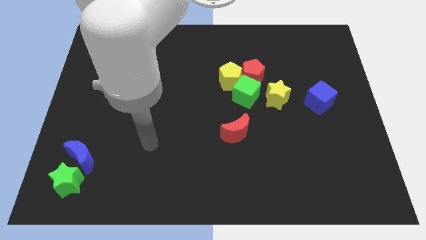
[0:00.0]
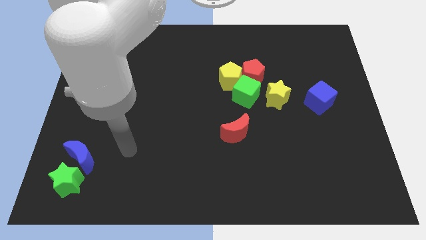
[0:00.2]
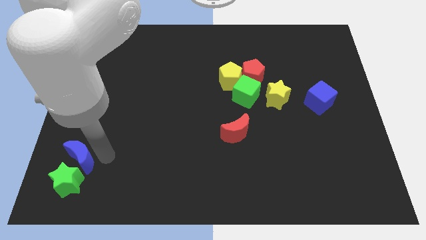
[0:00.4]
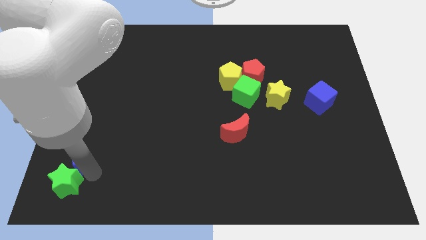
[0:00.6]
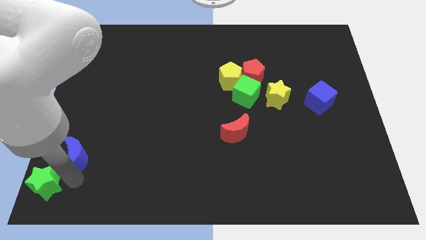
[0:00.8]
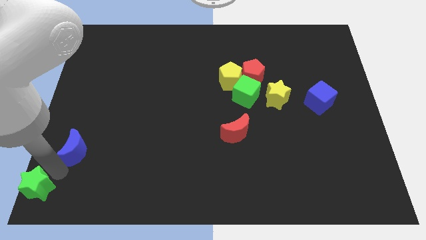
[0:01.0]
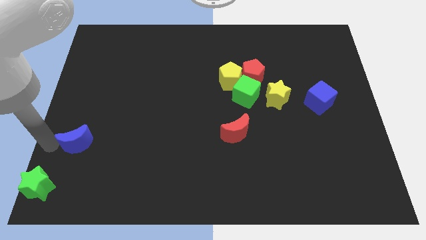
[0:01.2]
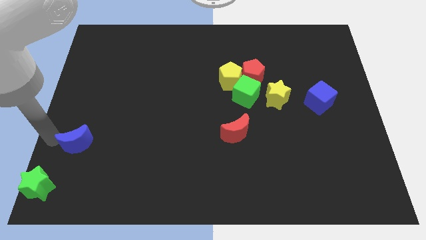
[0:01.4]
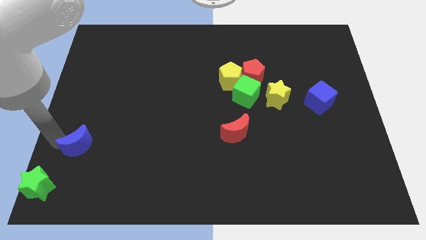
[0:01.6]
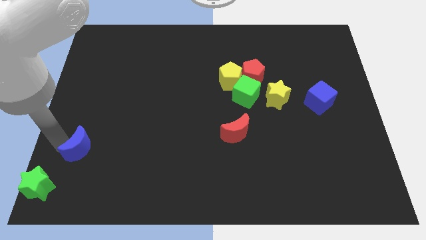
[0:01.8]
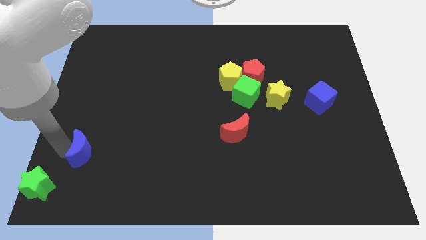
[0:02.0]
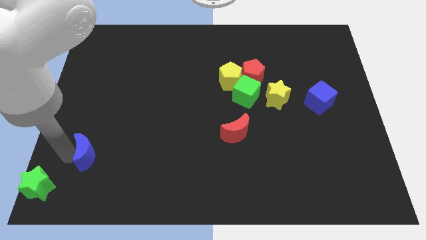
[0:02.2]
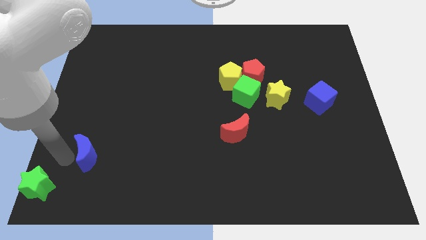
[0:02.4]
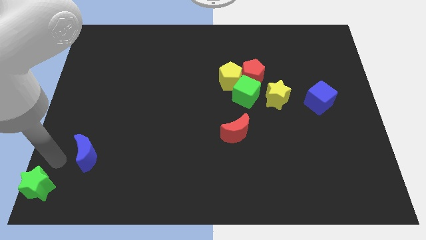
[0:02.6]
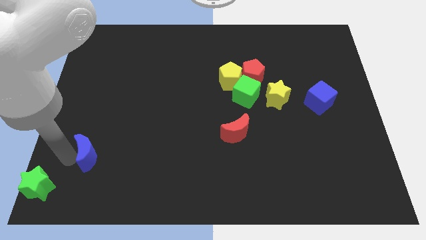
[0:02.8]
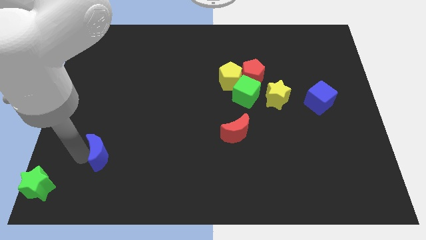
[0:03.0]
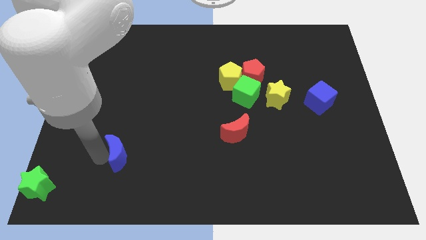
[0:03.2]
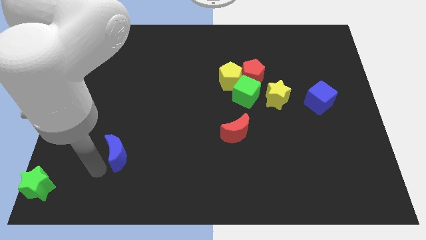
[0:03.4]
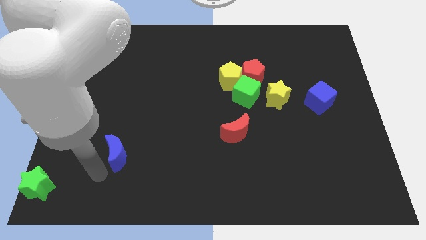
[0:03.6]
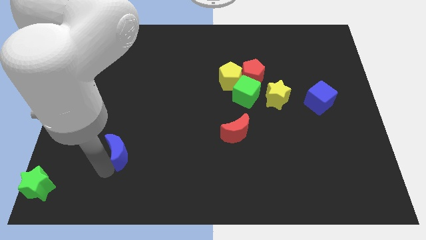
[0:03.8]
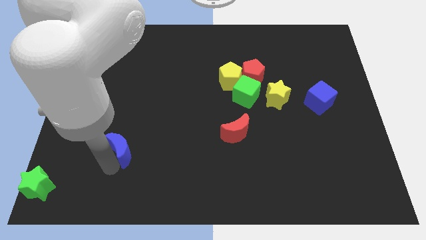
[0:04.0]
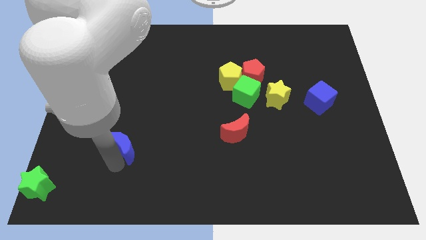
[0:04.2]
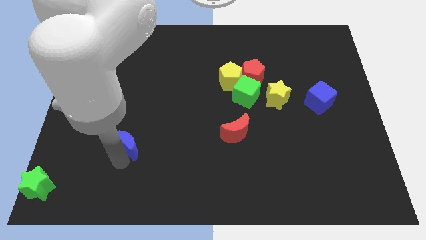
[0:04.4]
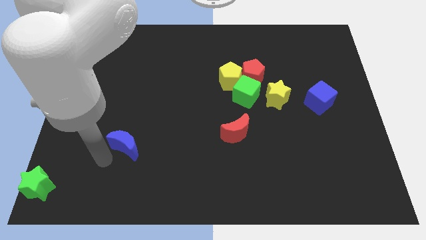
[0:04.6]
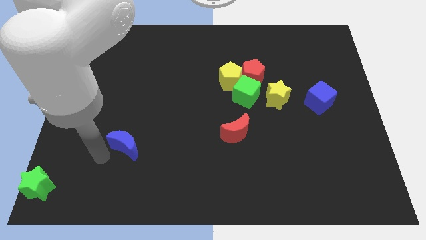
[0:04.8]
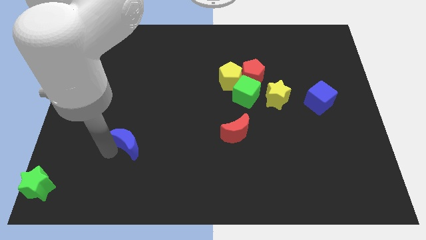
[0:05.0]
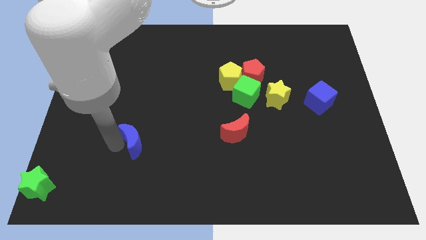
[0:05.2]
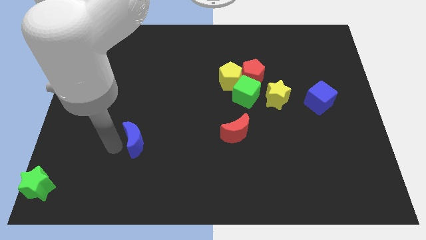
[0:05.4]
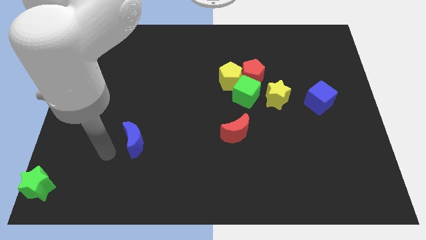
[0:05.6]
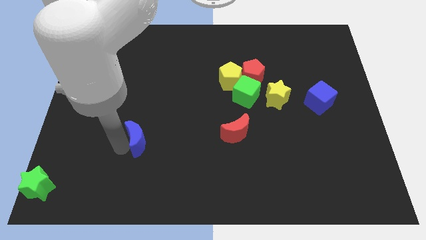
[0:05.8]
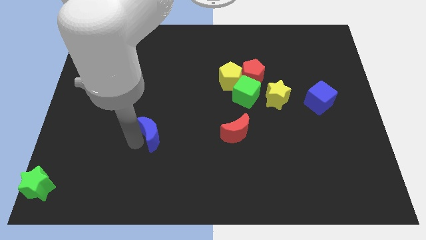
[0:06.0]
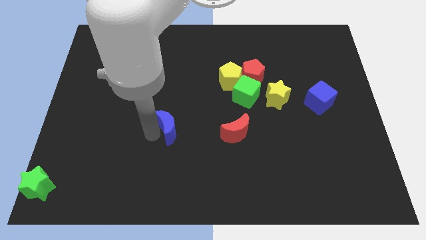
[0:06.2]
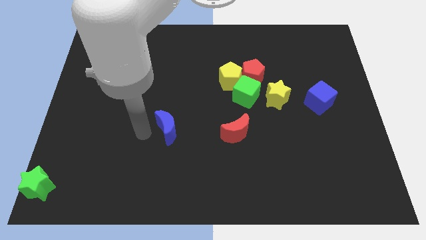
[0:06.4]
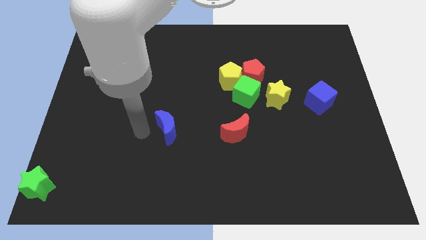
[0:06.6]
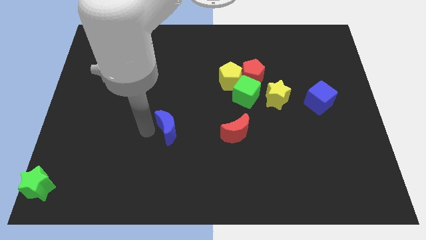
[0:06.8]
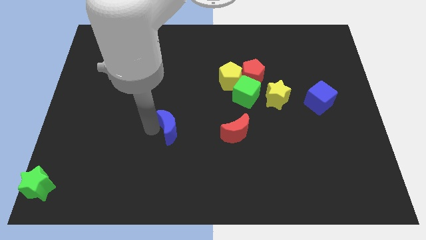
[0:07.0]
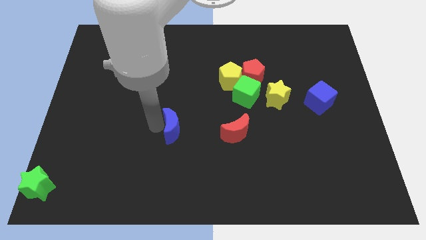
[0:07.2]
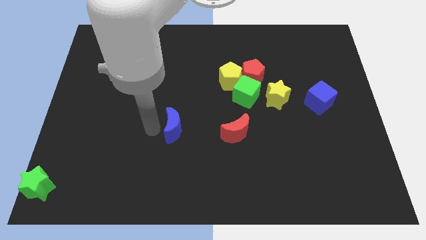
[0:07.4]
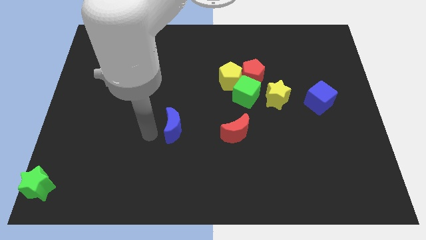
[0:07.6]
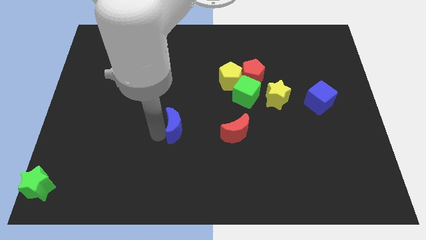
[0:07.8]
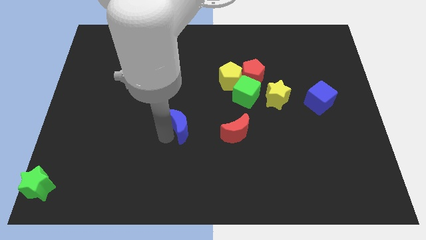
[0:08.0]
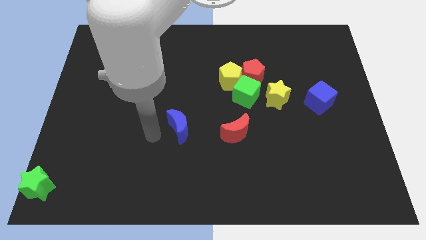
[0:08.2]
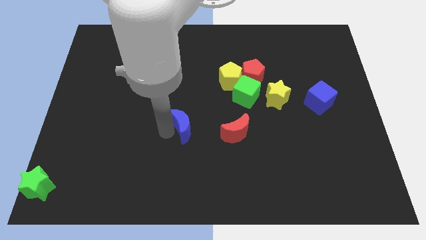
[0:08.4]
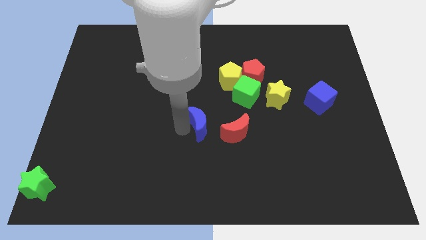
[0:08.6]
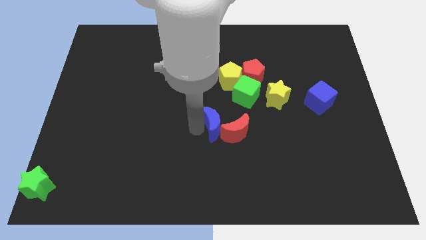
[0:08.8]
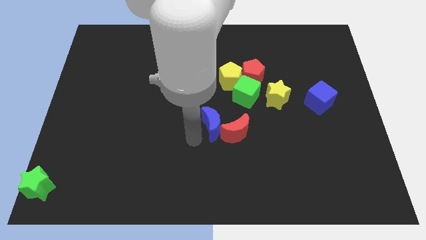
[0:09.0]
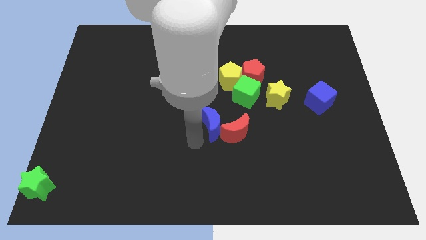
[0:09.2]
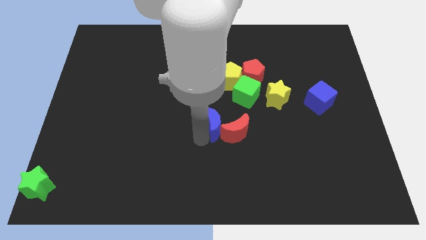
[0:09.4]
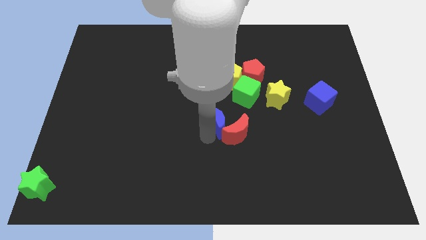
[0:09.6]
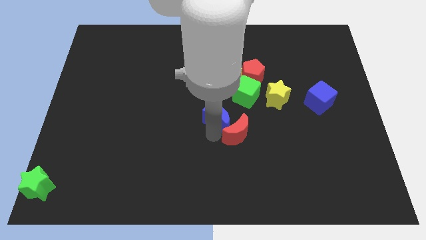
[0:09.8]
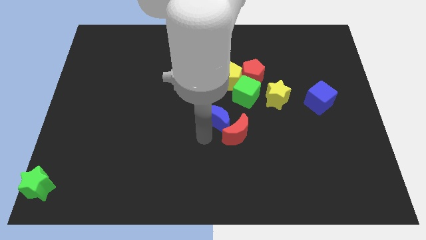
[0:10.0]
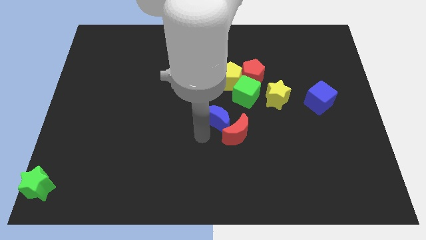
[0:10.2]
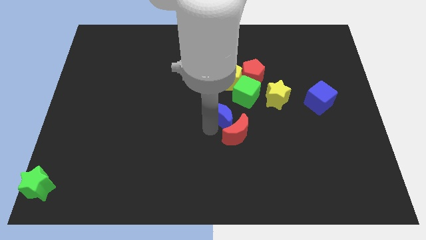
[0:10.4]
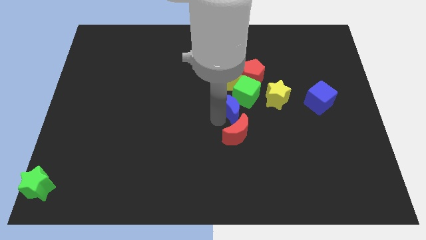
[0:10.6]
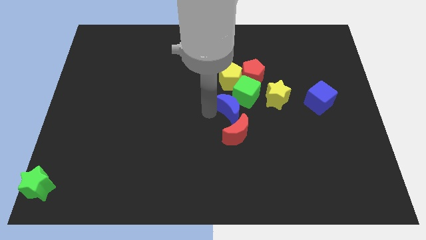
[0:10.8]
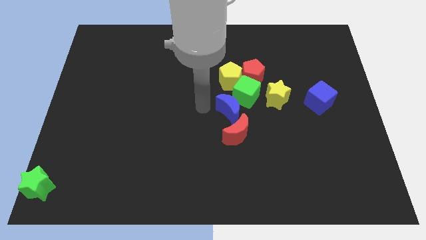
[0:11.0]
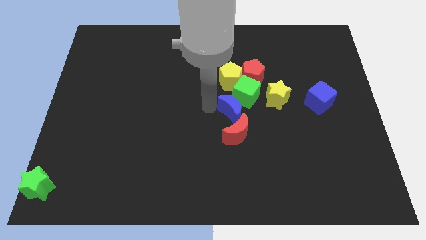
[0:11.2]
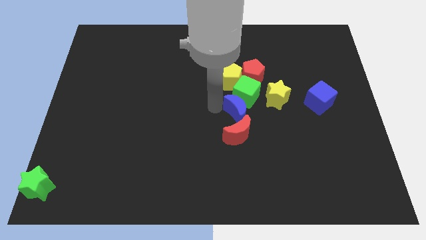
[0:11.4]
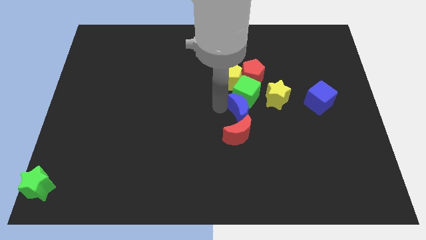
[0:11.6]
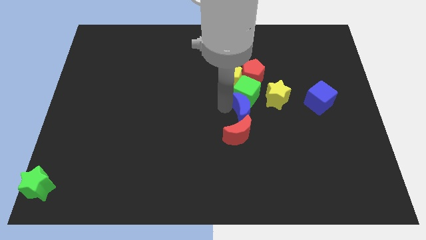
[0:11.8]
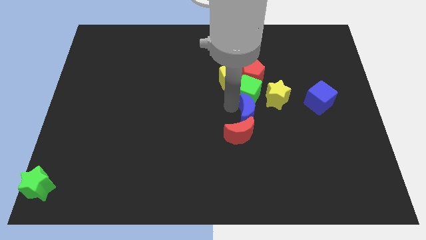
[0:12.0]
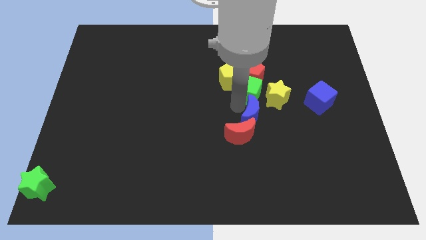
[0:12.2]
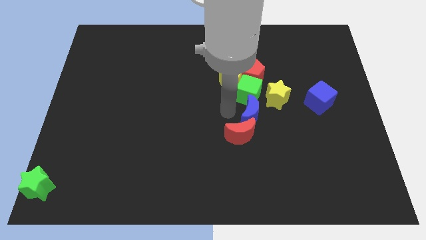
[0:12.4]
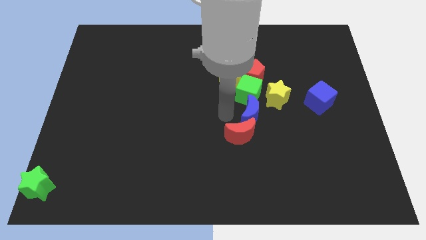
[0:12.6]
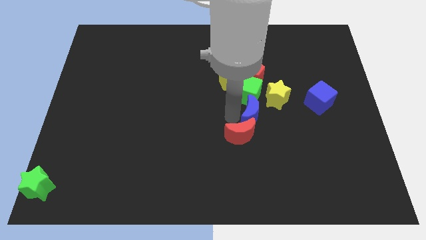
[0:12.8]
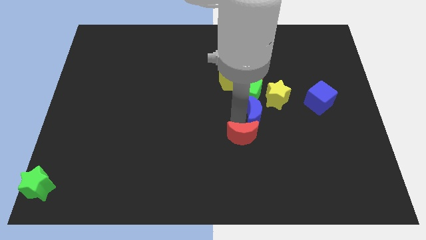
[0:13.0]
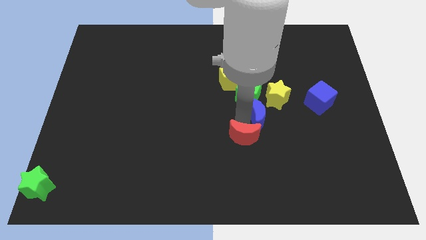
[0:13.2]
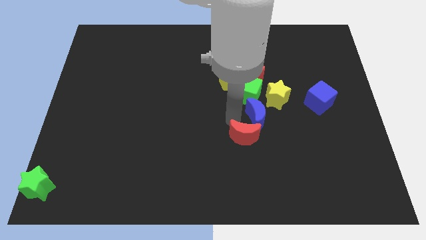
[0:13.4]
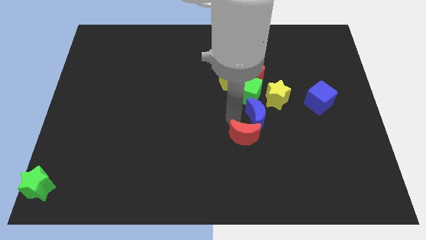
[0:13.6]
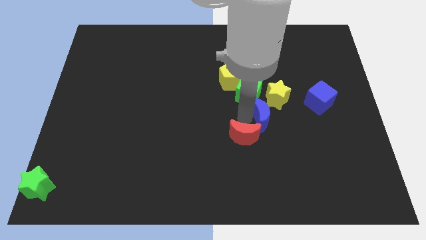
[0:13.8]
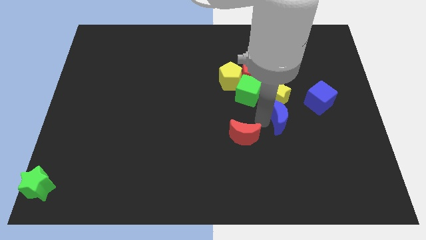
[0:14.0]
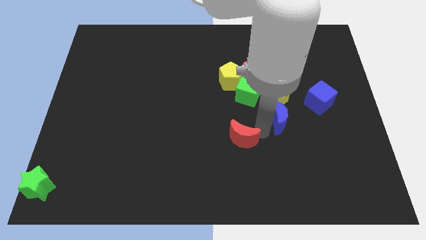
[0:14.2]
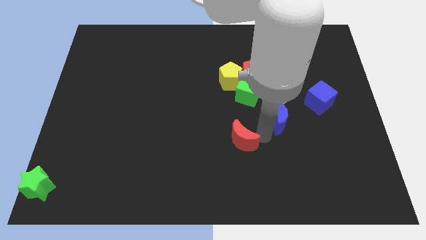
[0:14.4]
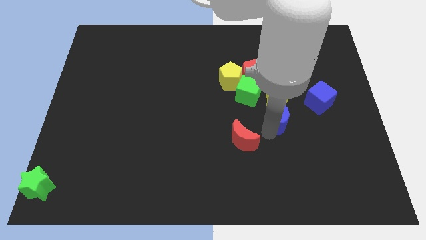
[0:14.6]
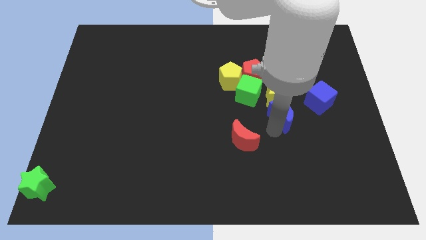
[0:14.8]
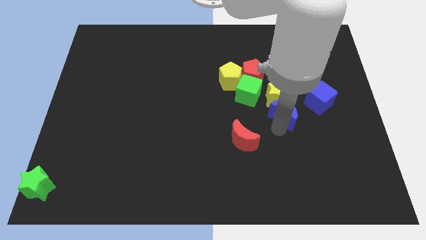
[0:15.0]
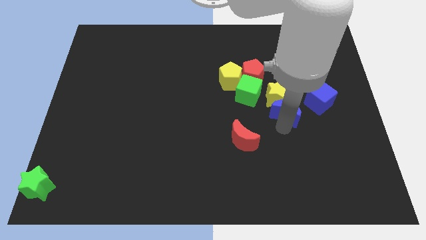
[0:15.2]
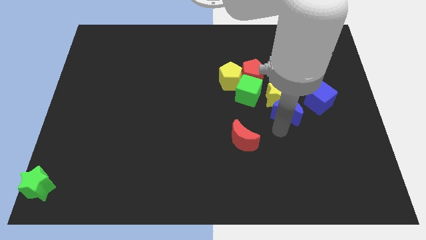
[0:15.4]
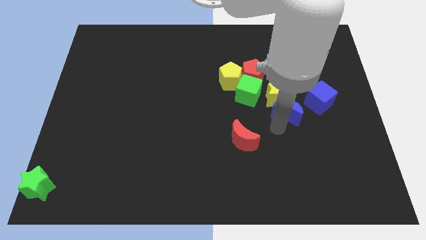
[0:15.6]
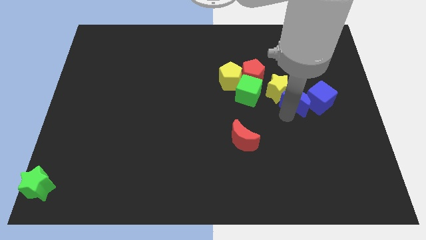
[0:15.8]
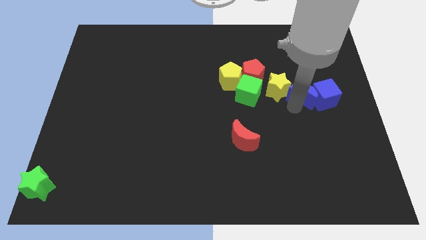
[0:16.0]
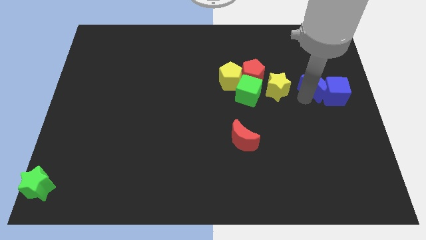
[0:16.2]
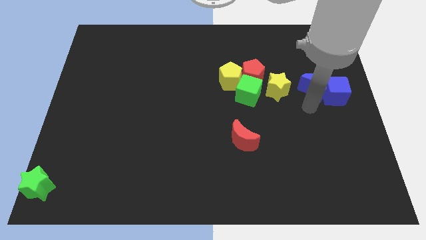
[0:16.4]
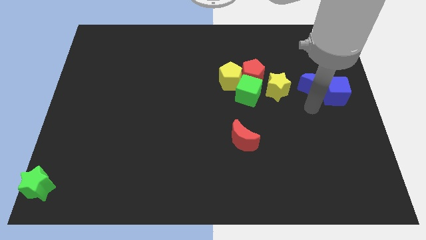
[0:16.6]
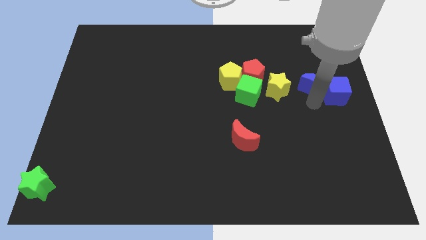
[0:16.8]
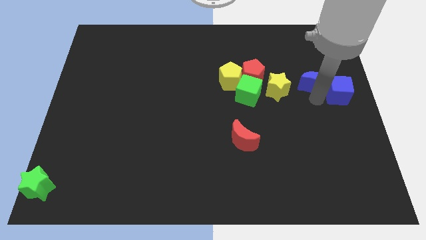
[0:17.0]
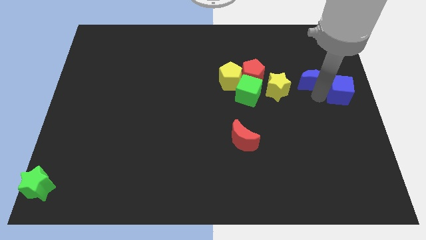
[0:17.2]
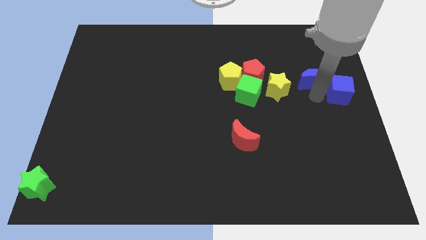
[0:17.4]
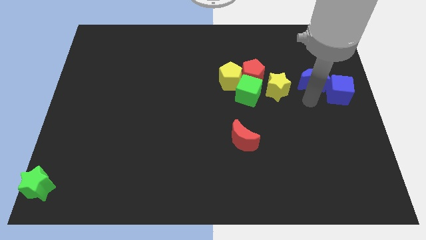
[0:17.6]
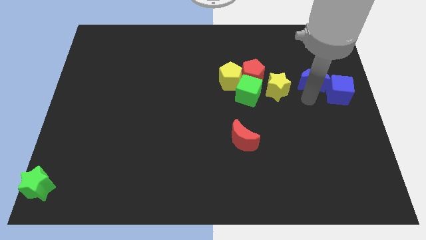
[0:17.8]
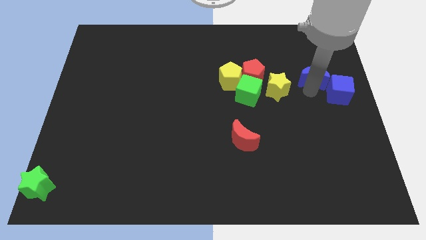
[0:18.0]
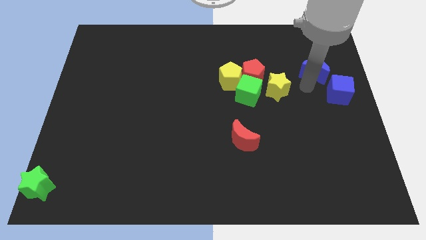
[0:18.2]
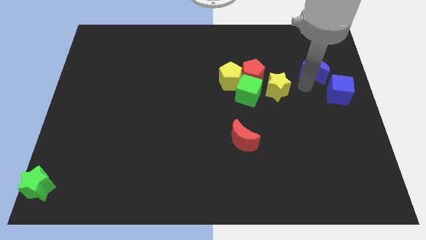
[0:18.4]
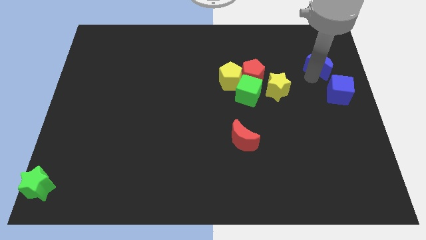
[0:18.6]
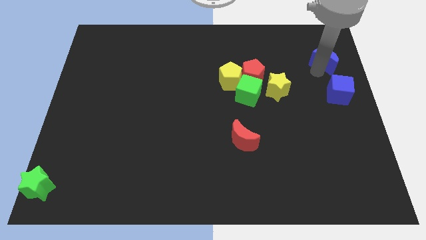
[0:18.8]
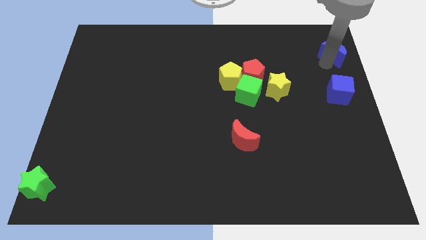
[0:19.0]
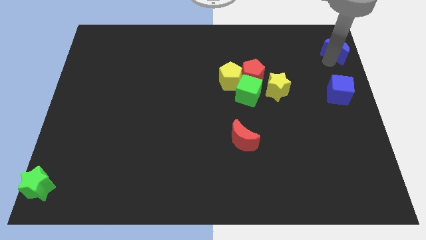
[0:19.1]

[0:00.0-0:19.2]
slide the blue moon to the top right
